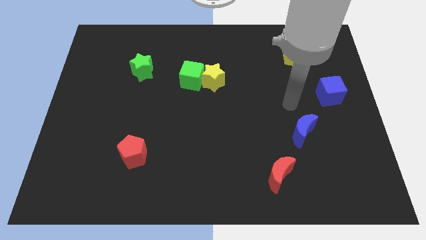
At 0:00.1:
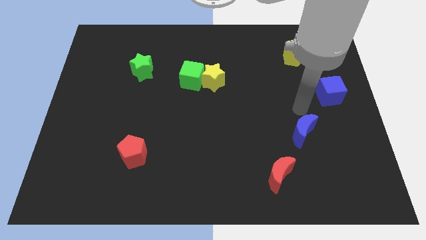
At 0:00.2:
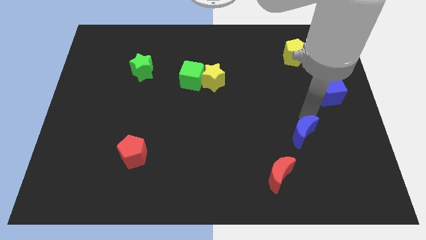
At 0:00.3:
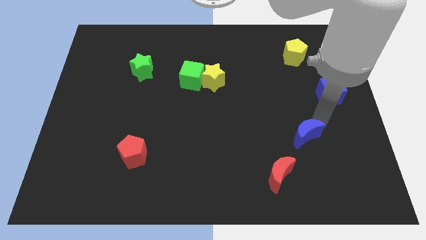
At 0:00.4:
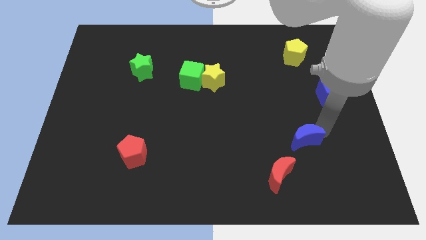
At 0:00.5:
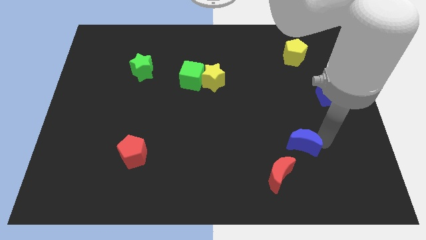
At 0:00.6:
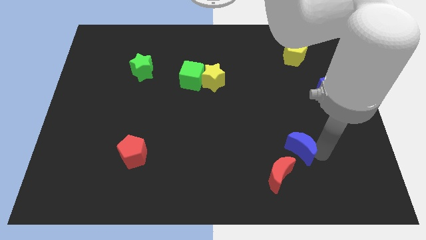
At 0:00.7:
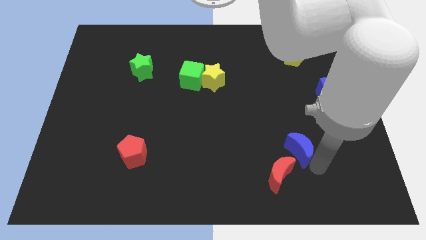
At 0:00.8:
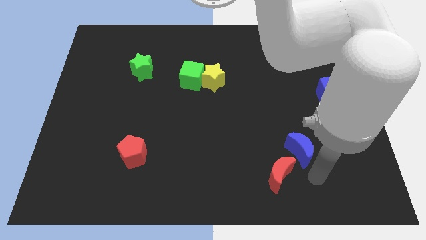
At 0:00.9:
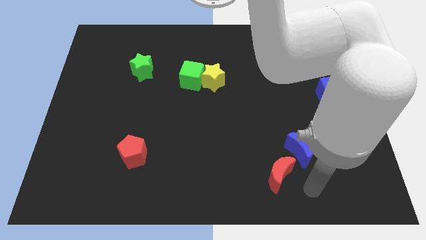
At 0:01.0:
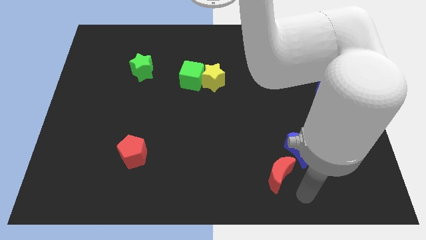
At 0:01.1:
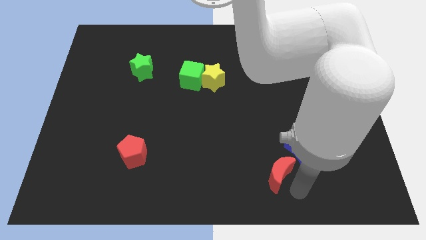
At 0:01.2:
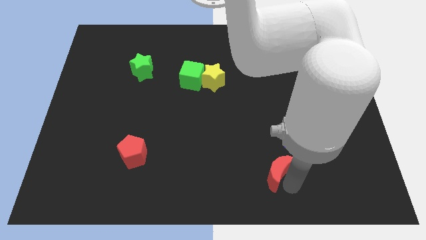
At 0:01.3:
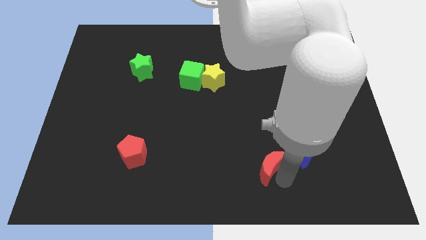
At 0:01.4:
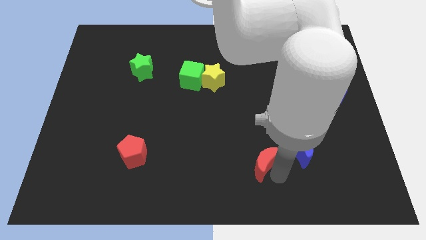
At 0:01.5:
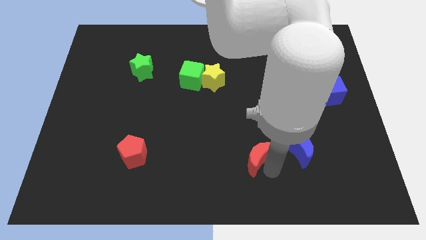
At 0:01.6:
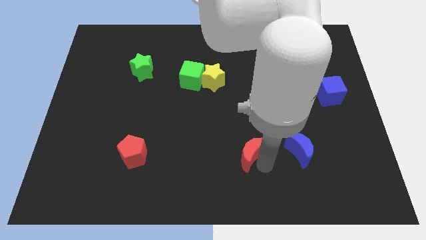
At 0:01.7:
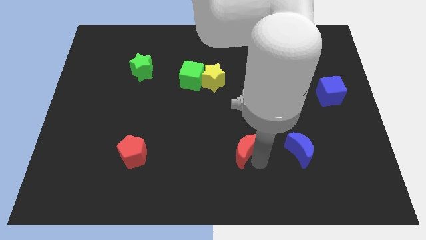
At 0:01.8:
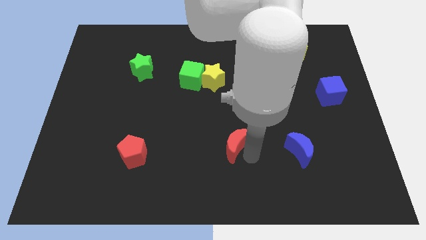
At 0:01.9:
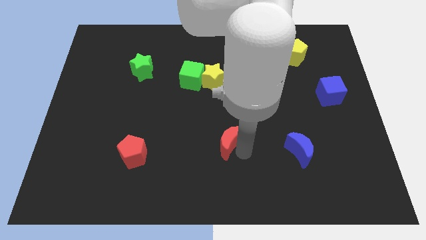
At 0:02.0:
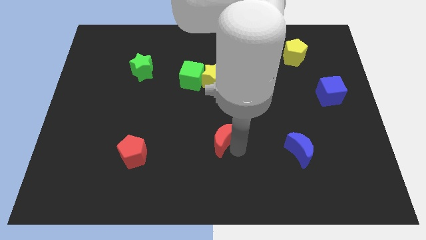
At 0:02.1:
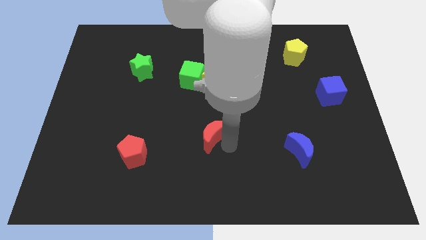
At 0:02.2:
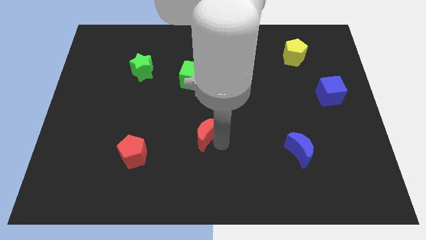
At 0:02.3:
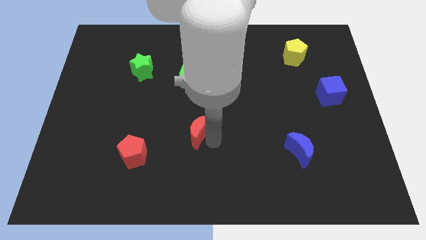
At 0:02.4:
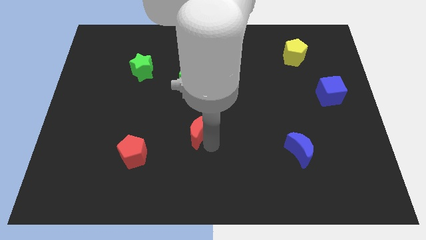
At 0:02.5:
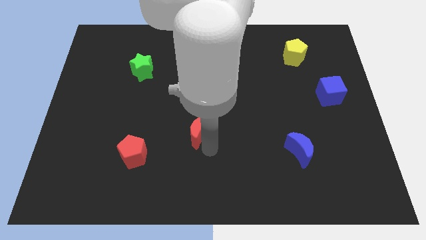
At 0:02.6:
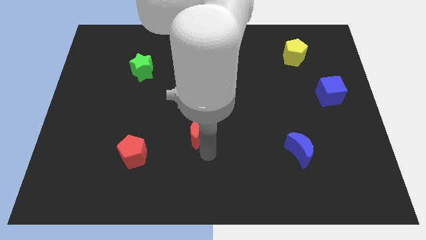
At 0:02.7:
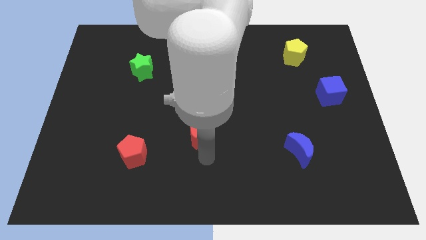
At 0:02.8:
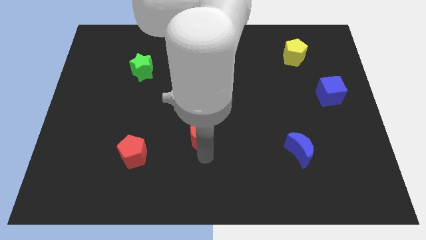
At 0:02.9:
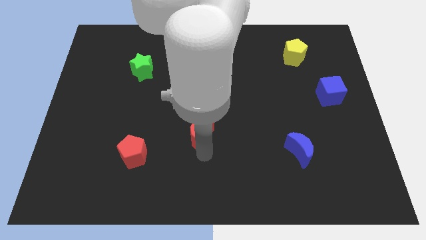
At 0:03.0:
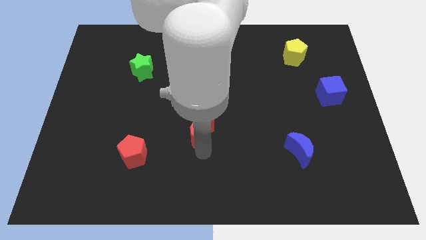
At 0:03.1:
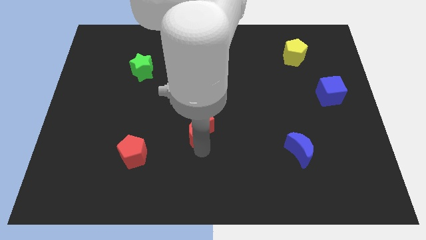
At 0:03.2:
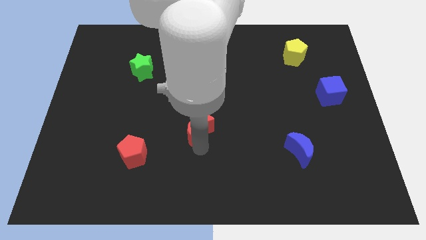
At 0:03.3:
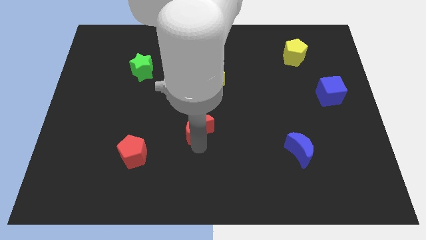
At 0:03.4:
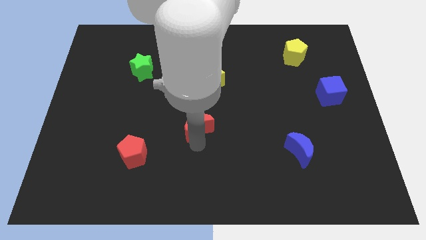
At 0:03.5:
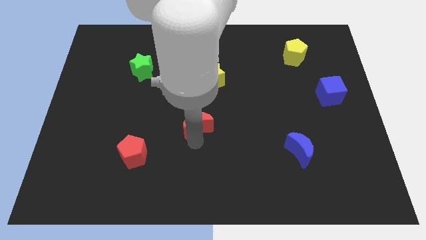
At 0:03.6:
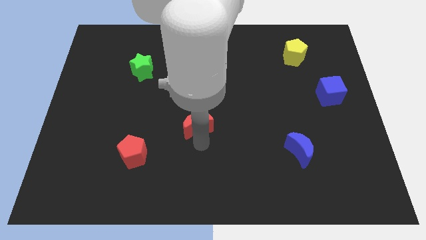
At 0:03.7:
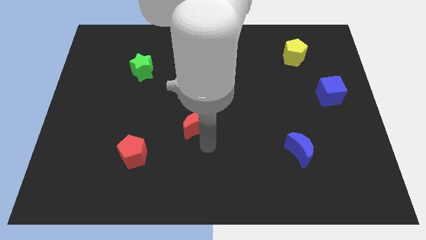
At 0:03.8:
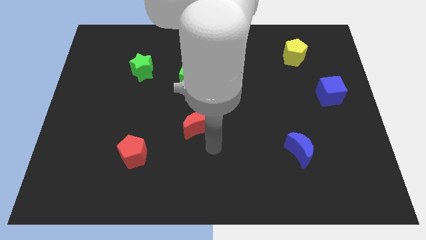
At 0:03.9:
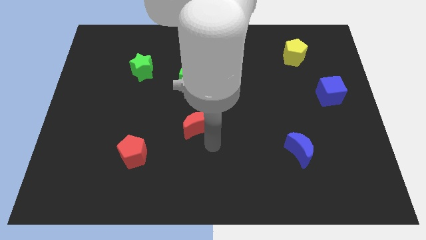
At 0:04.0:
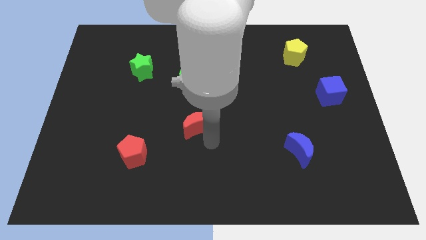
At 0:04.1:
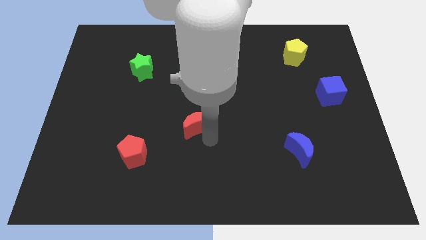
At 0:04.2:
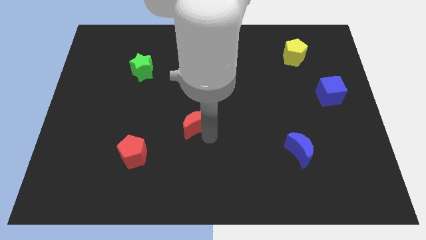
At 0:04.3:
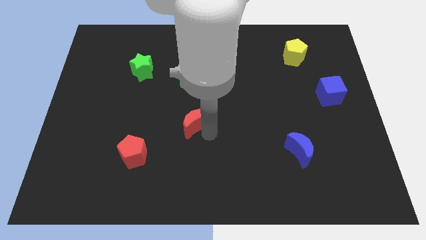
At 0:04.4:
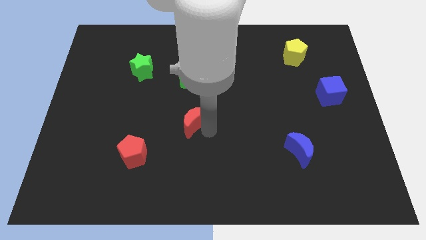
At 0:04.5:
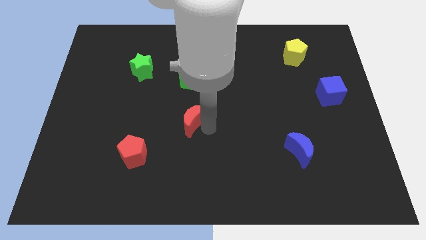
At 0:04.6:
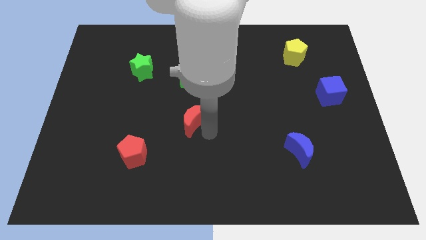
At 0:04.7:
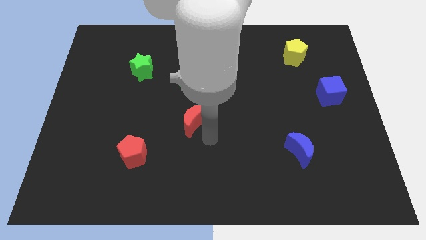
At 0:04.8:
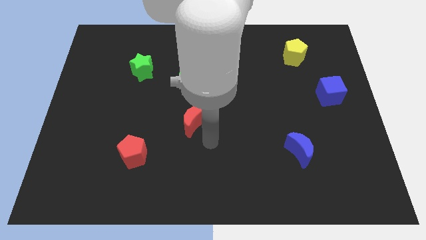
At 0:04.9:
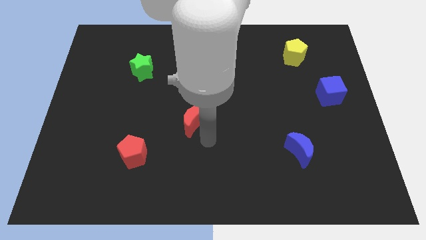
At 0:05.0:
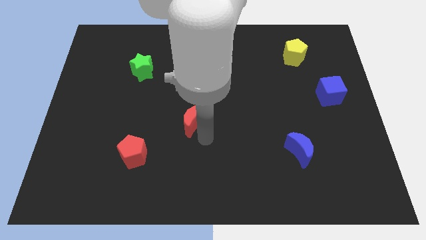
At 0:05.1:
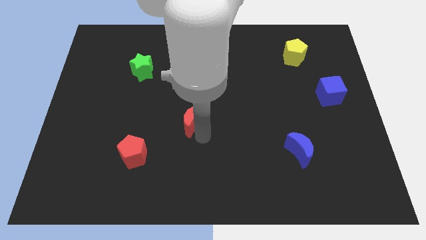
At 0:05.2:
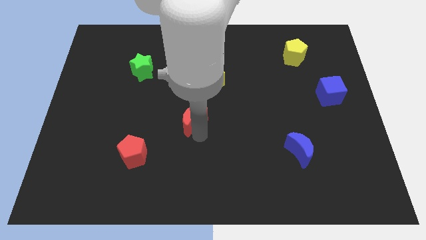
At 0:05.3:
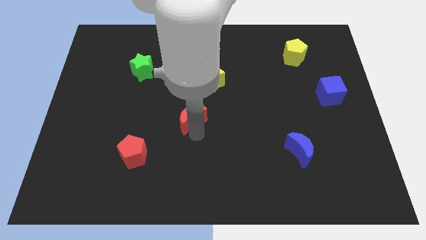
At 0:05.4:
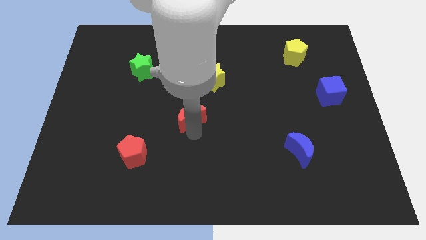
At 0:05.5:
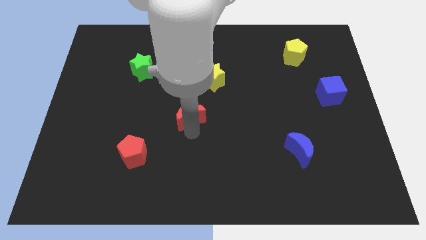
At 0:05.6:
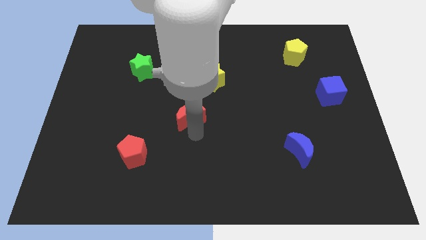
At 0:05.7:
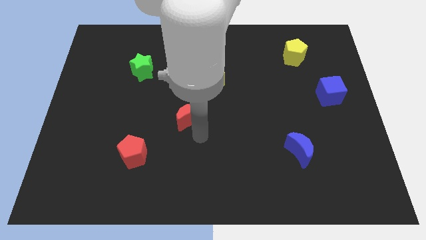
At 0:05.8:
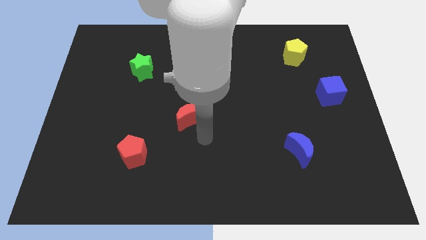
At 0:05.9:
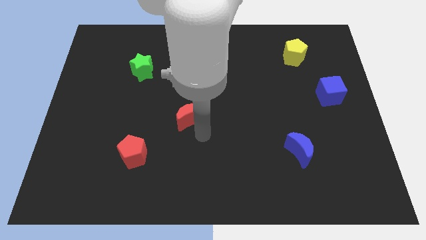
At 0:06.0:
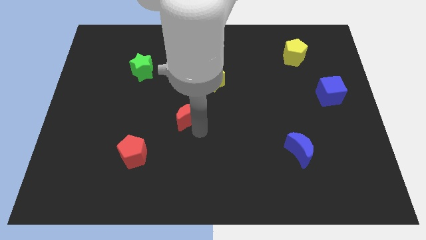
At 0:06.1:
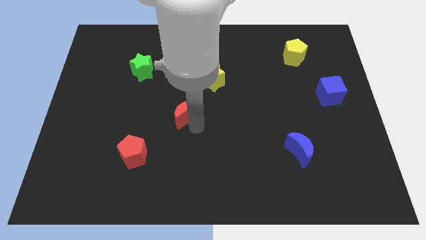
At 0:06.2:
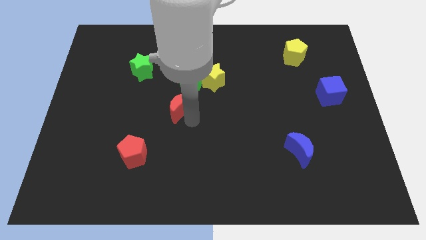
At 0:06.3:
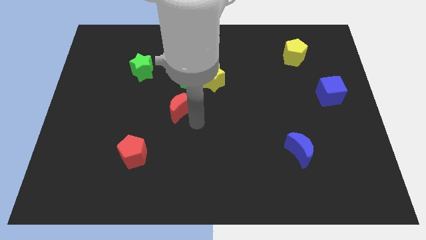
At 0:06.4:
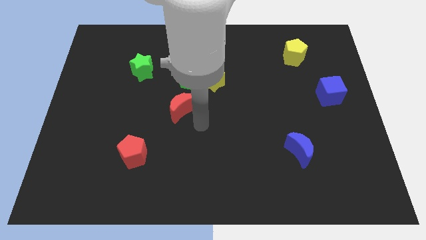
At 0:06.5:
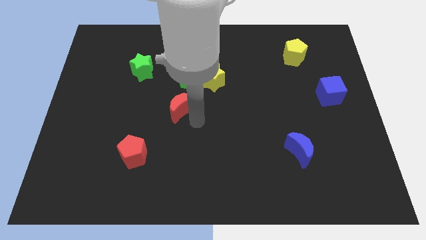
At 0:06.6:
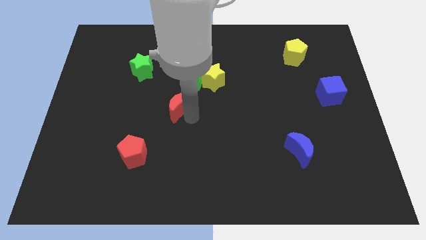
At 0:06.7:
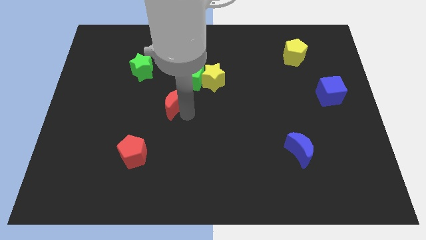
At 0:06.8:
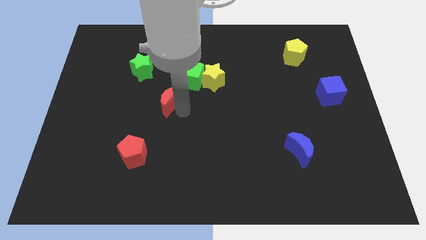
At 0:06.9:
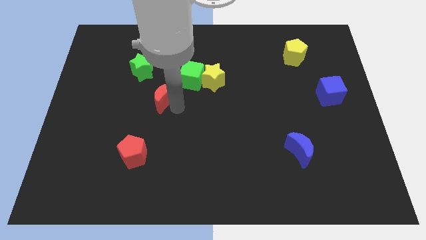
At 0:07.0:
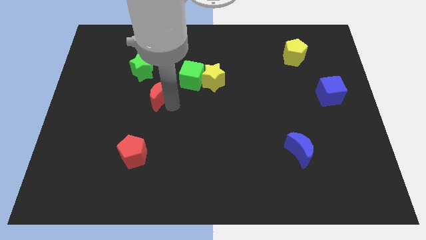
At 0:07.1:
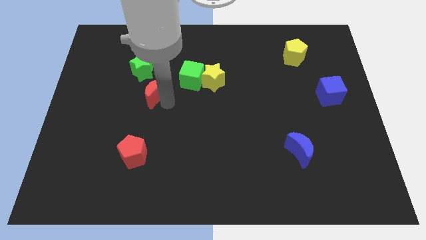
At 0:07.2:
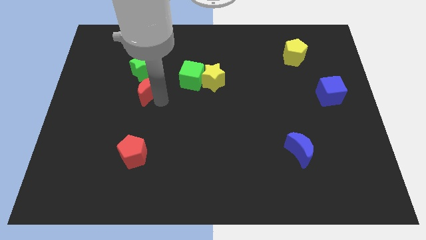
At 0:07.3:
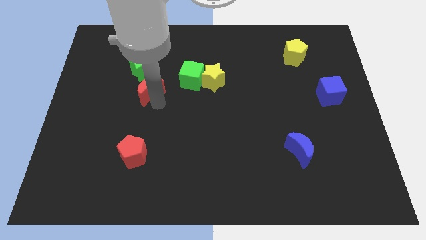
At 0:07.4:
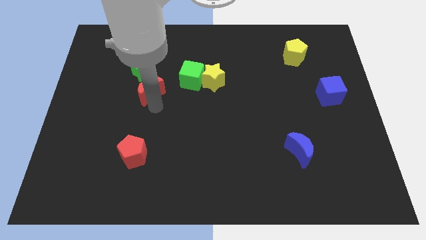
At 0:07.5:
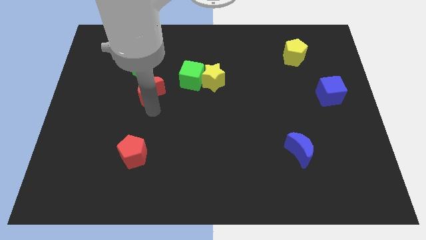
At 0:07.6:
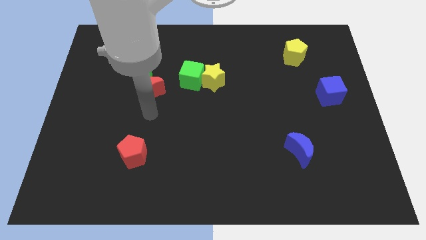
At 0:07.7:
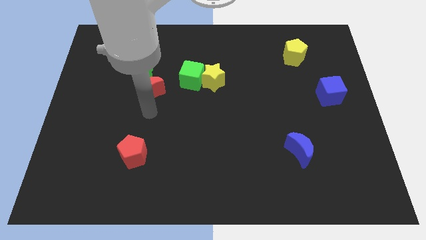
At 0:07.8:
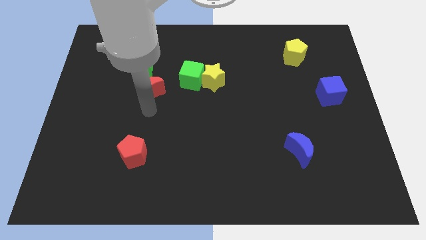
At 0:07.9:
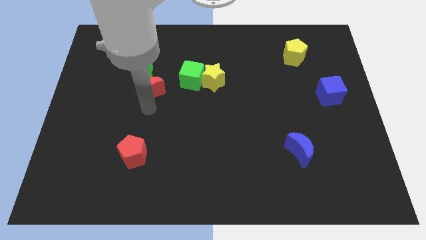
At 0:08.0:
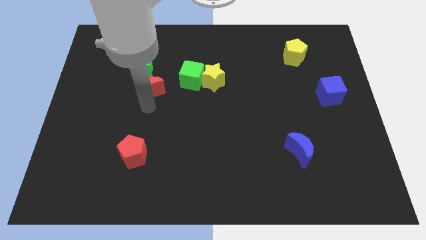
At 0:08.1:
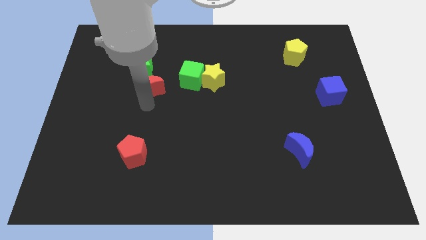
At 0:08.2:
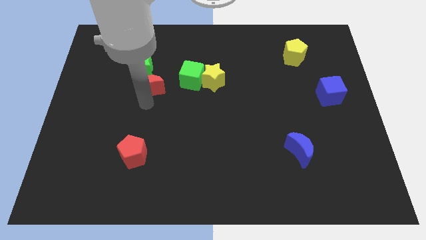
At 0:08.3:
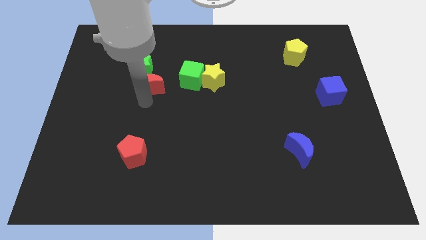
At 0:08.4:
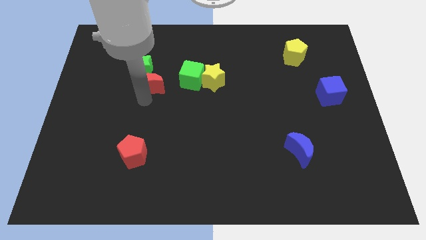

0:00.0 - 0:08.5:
slide the red moon next to the green star
